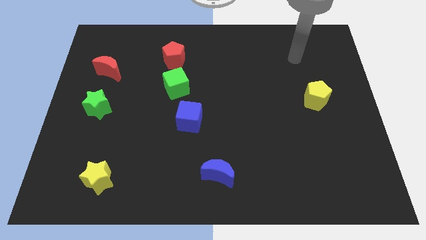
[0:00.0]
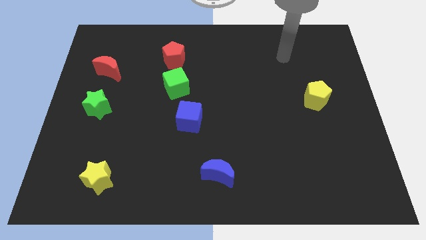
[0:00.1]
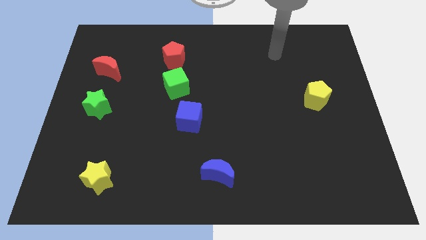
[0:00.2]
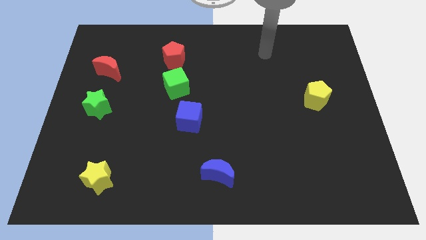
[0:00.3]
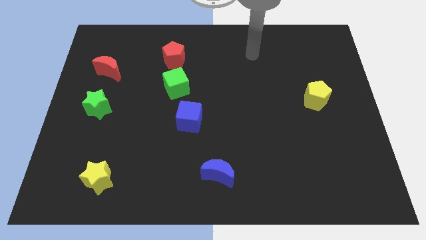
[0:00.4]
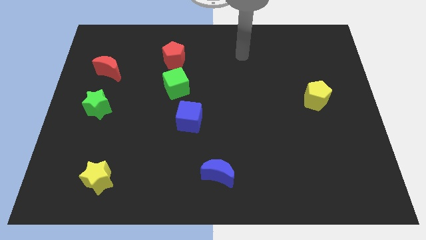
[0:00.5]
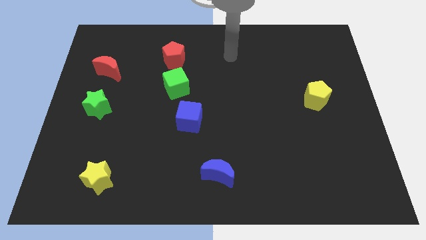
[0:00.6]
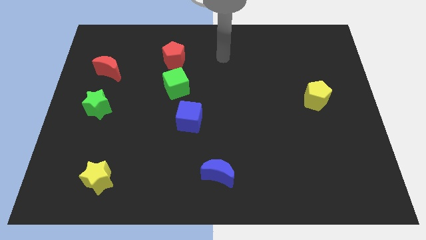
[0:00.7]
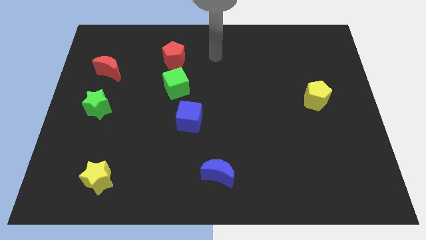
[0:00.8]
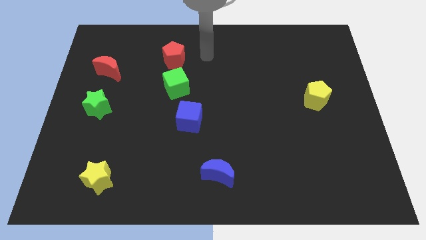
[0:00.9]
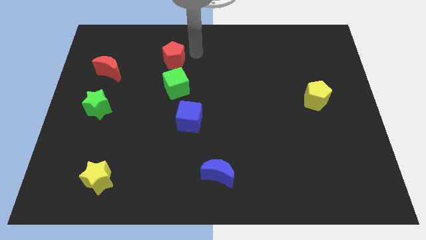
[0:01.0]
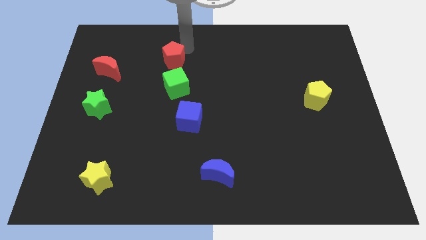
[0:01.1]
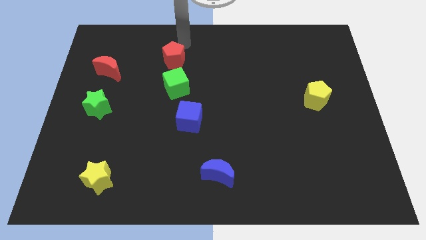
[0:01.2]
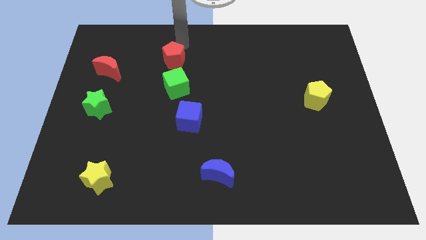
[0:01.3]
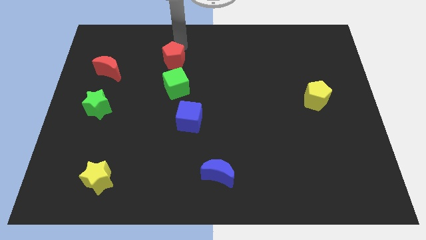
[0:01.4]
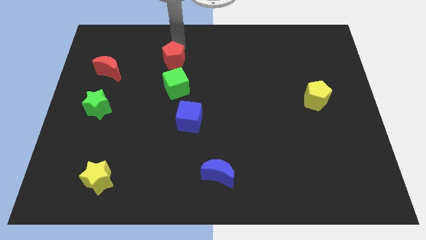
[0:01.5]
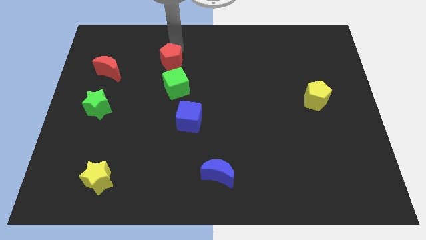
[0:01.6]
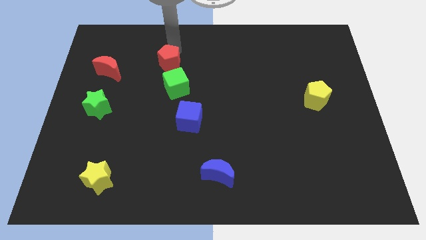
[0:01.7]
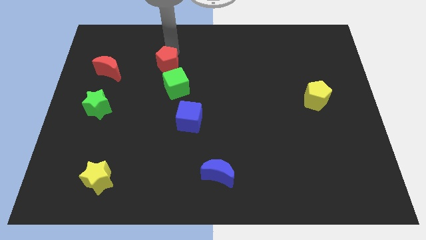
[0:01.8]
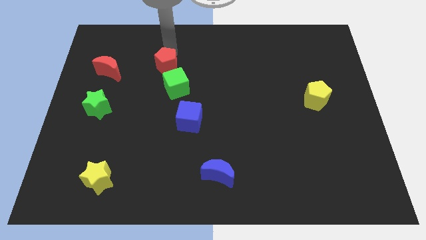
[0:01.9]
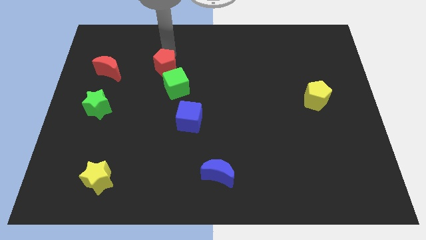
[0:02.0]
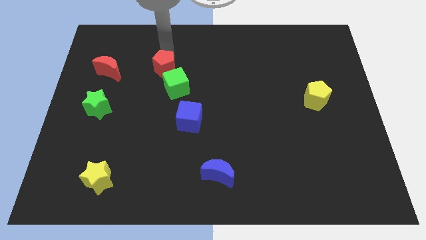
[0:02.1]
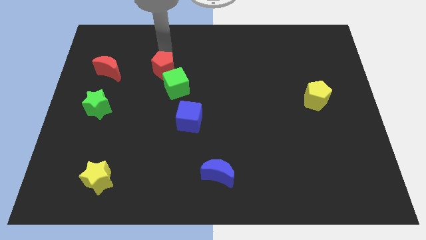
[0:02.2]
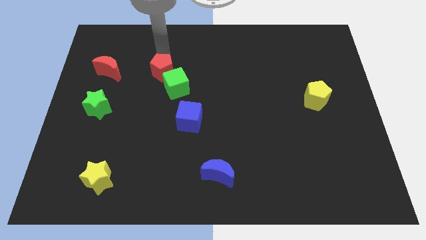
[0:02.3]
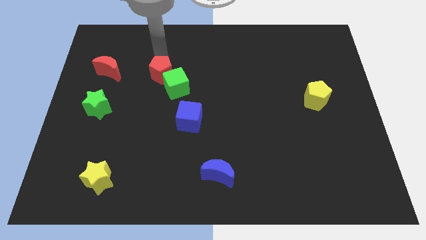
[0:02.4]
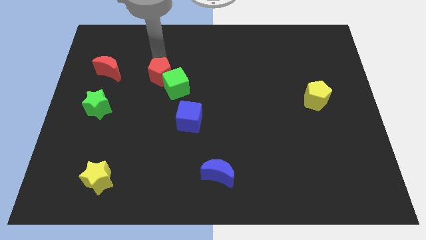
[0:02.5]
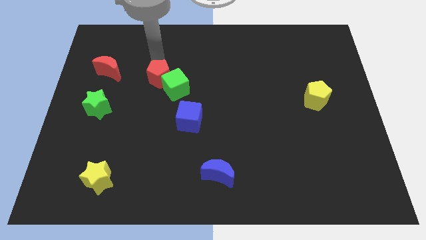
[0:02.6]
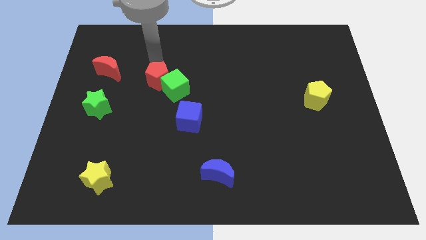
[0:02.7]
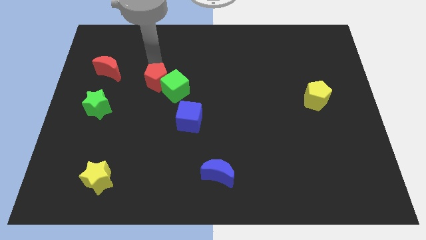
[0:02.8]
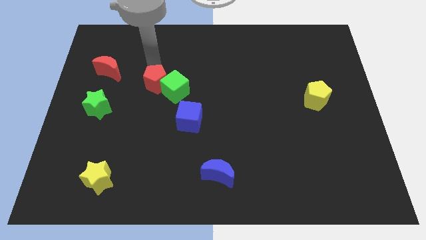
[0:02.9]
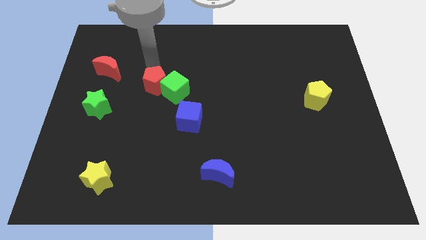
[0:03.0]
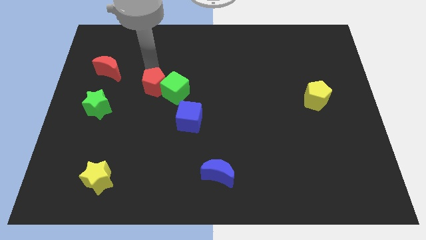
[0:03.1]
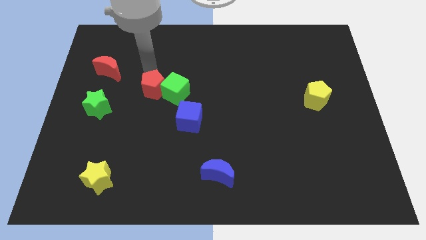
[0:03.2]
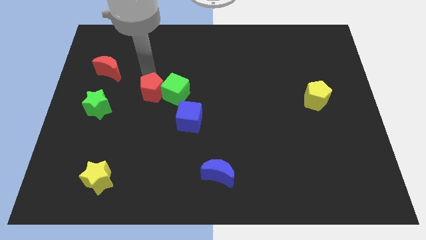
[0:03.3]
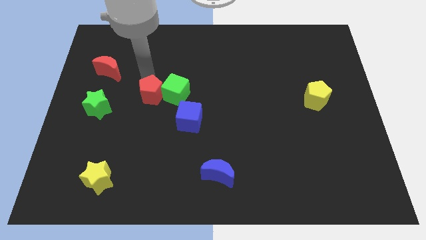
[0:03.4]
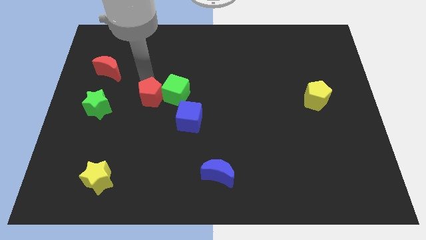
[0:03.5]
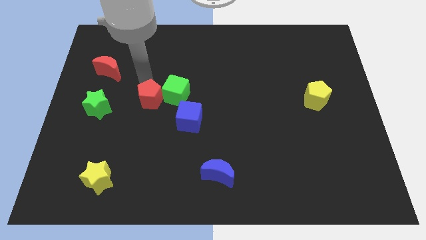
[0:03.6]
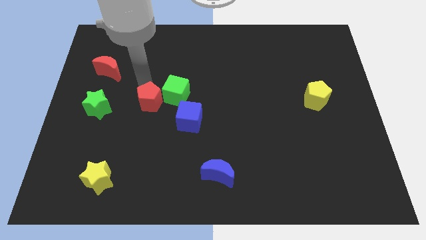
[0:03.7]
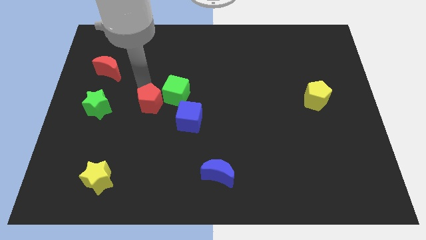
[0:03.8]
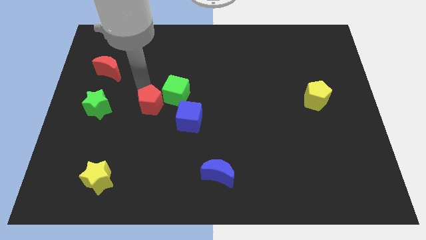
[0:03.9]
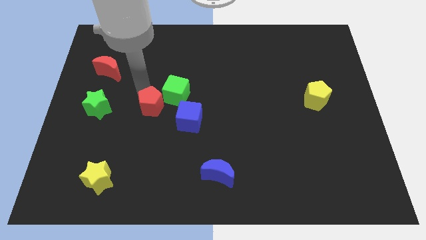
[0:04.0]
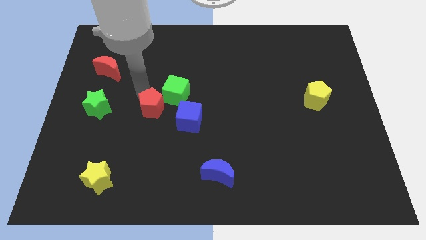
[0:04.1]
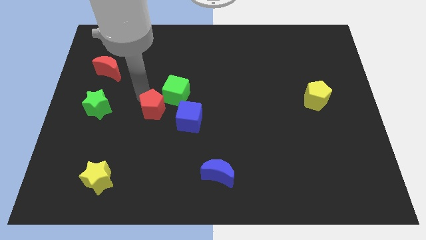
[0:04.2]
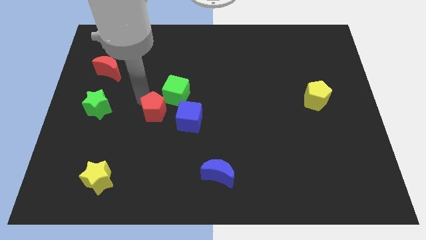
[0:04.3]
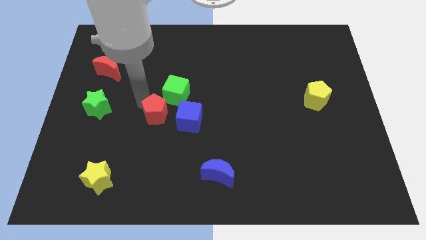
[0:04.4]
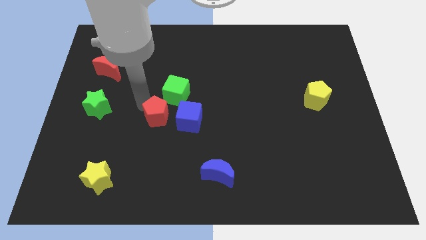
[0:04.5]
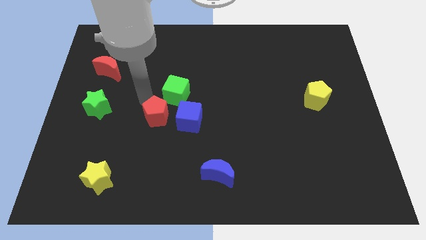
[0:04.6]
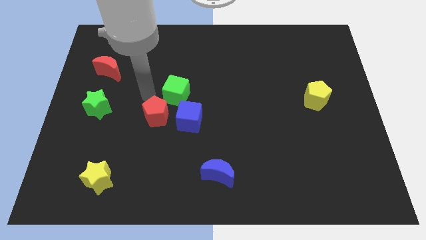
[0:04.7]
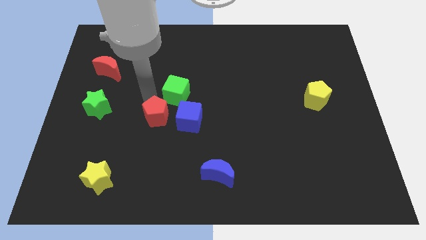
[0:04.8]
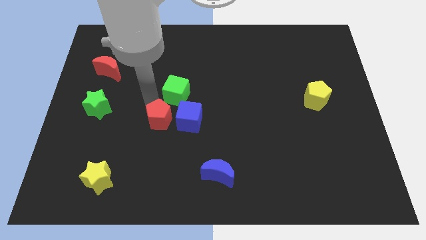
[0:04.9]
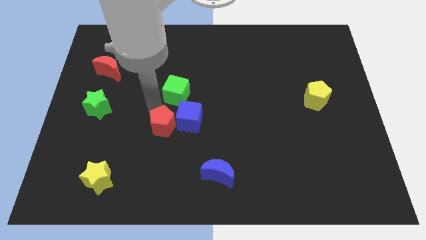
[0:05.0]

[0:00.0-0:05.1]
move the red pentagon diagonally down and to the left of the blue cube

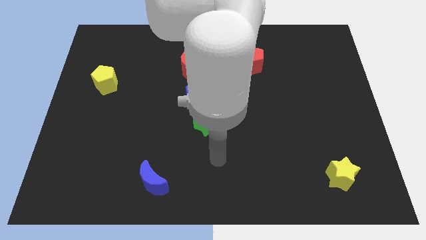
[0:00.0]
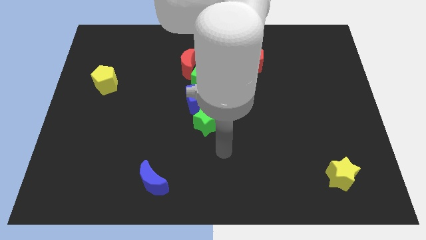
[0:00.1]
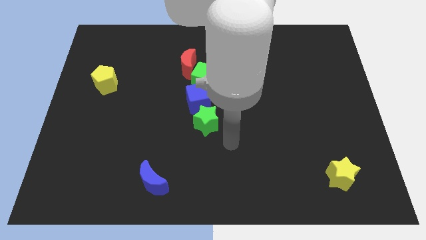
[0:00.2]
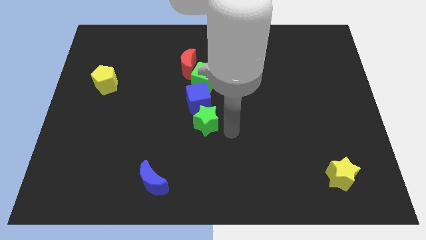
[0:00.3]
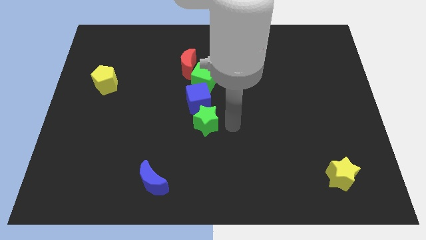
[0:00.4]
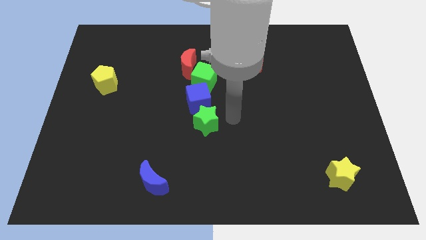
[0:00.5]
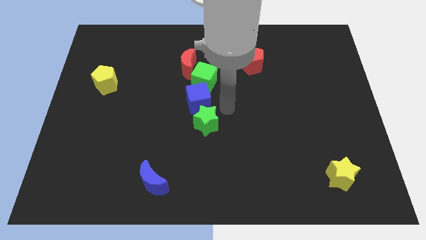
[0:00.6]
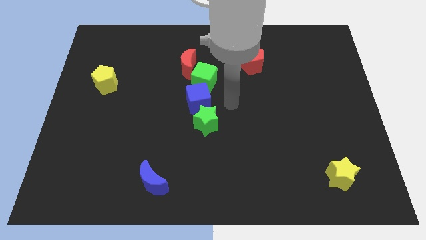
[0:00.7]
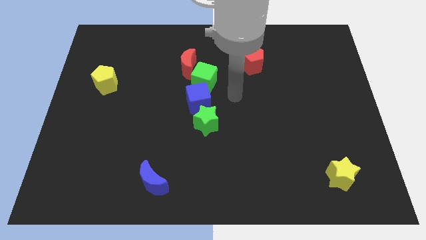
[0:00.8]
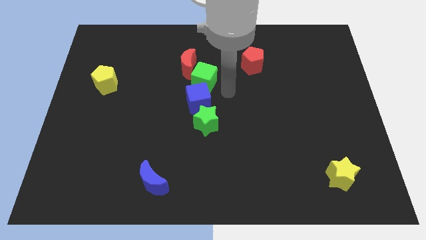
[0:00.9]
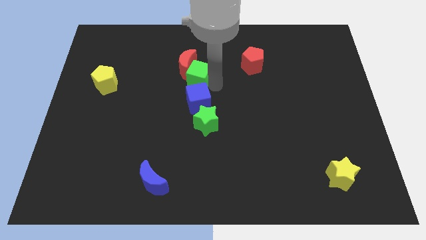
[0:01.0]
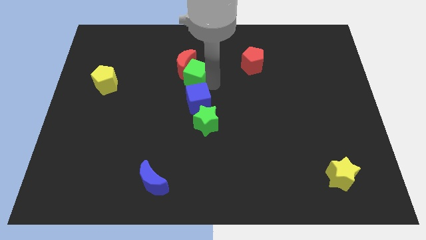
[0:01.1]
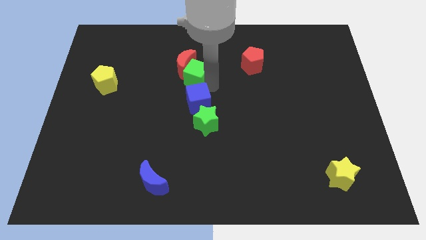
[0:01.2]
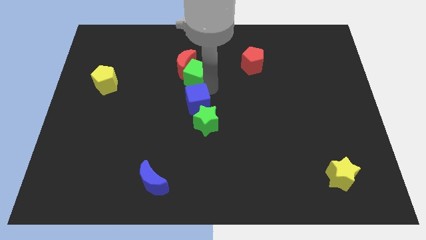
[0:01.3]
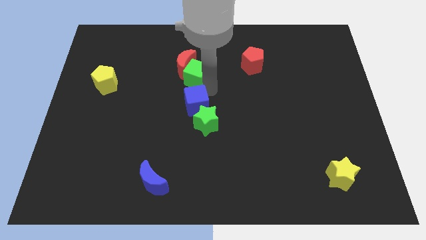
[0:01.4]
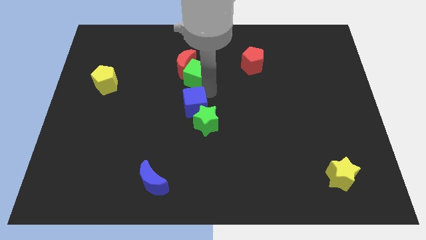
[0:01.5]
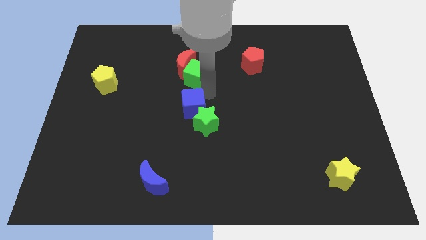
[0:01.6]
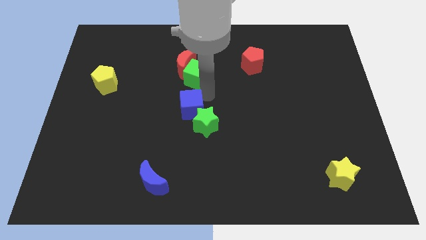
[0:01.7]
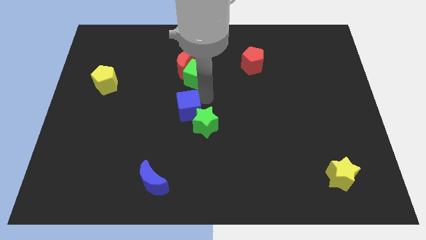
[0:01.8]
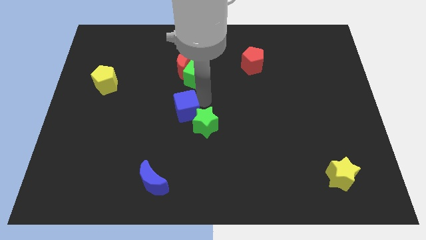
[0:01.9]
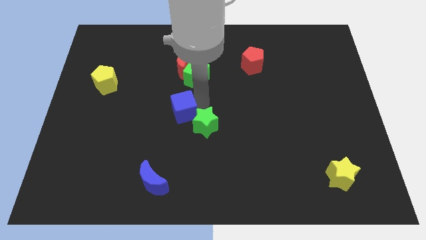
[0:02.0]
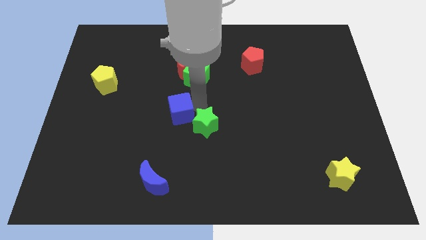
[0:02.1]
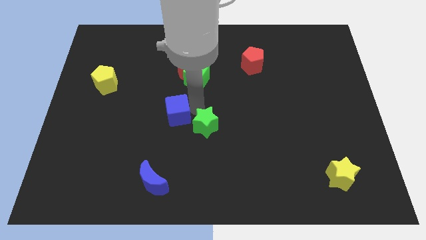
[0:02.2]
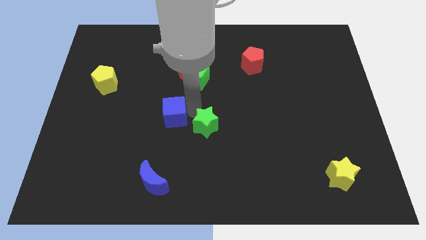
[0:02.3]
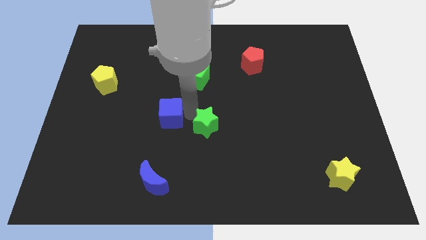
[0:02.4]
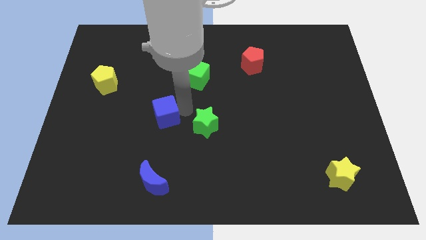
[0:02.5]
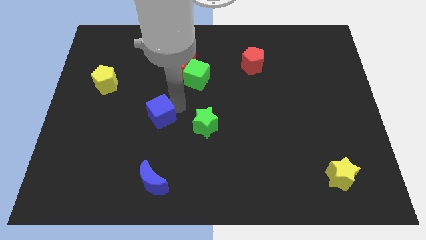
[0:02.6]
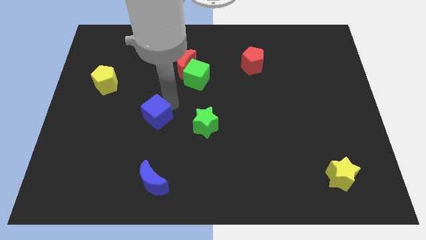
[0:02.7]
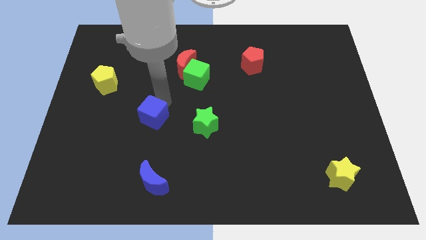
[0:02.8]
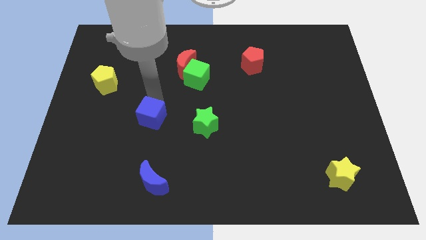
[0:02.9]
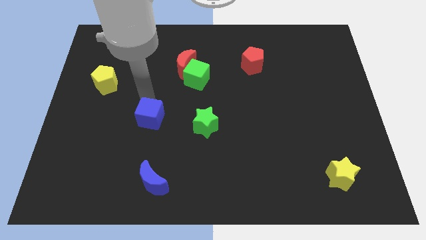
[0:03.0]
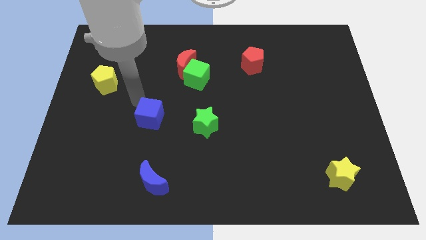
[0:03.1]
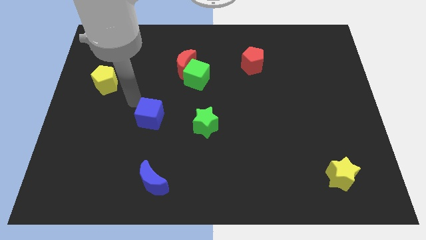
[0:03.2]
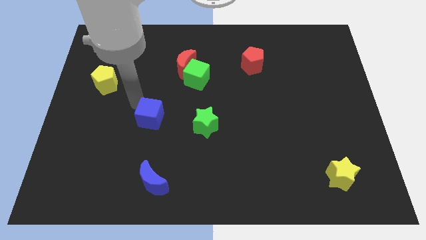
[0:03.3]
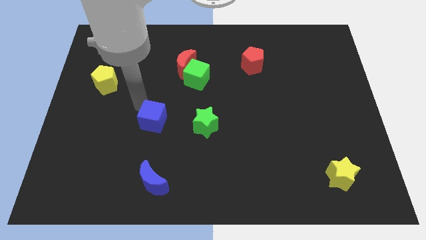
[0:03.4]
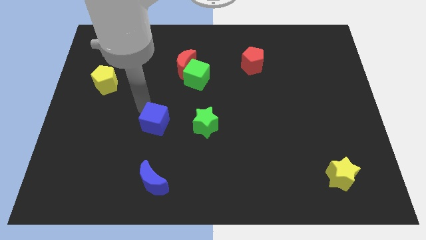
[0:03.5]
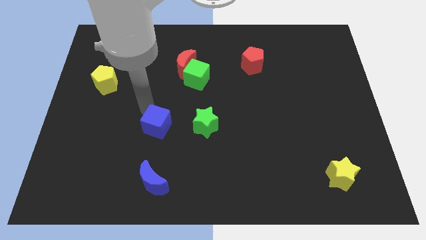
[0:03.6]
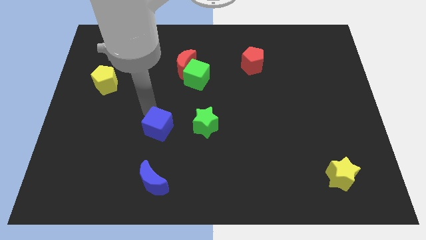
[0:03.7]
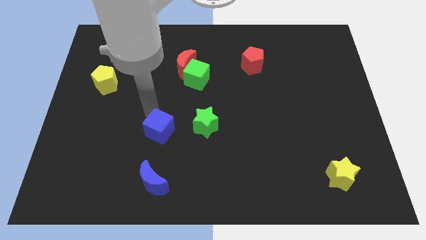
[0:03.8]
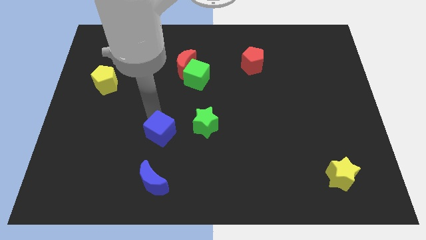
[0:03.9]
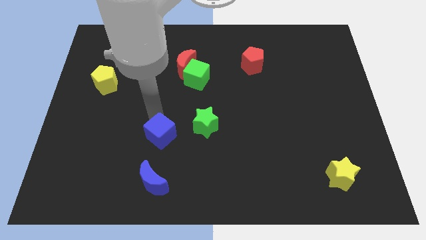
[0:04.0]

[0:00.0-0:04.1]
move the blue cube to the bottom left of the green star
